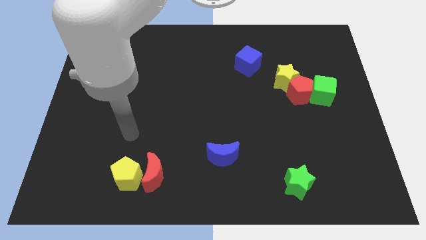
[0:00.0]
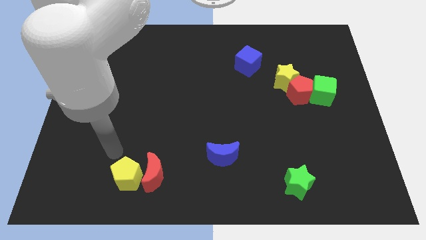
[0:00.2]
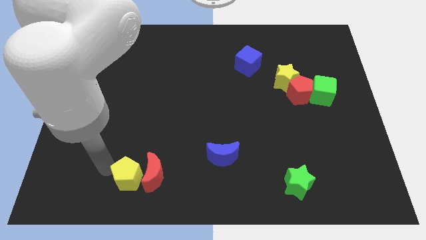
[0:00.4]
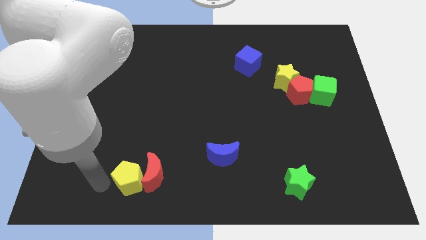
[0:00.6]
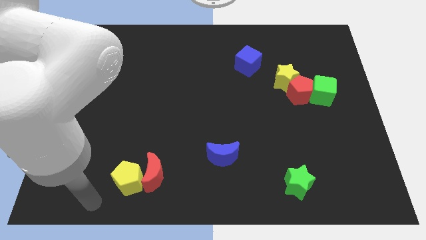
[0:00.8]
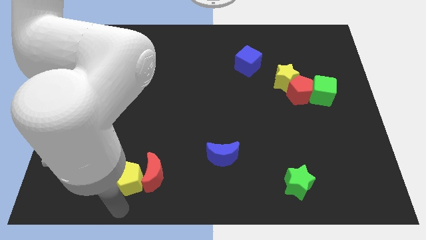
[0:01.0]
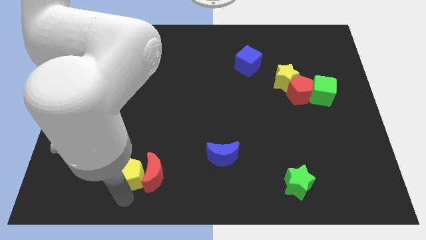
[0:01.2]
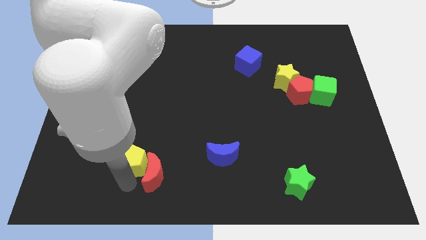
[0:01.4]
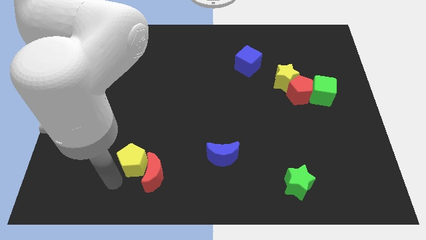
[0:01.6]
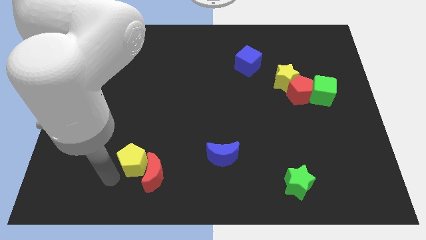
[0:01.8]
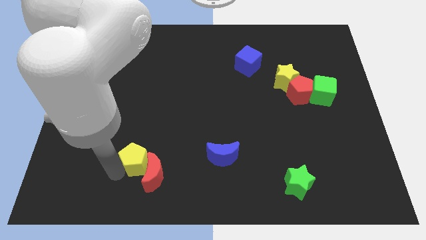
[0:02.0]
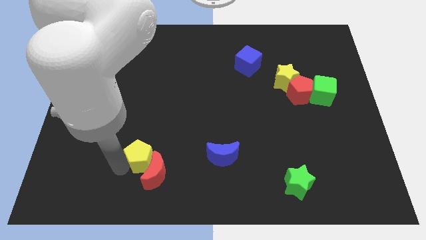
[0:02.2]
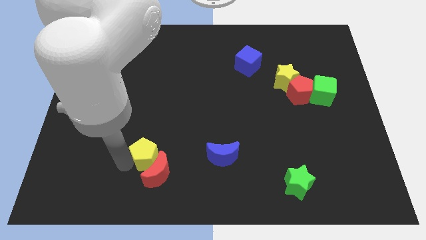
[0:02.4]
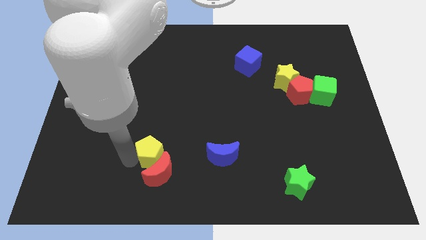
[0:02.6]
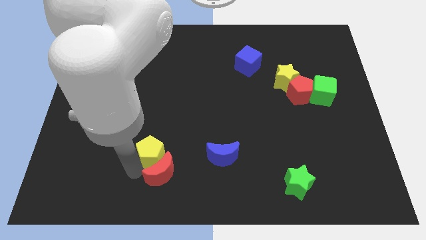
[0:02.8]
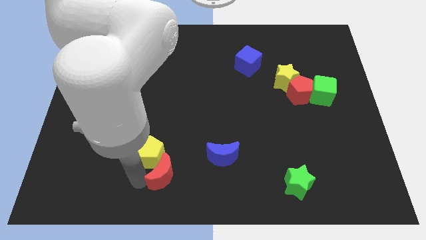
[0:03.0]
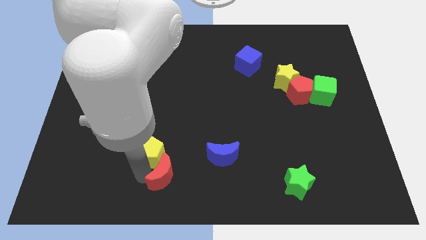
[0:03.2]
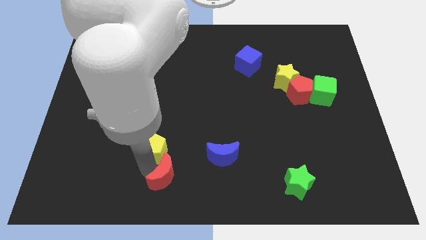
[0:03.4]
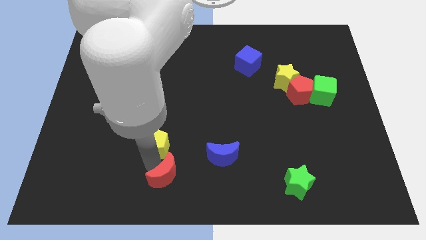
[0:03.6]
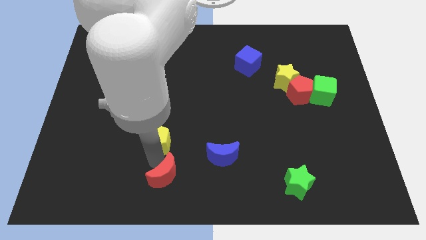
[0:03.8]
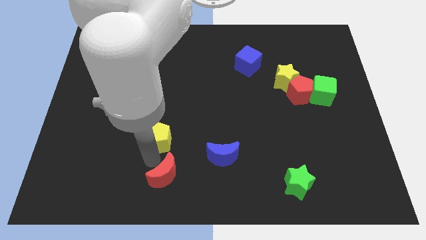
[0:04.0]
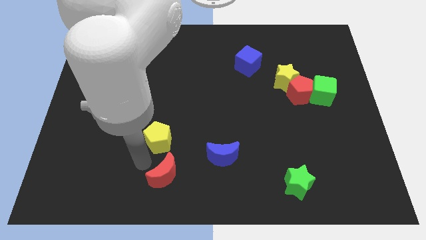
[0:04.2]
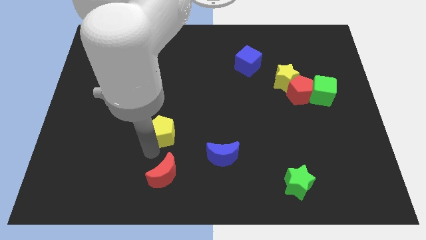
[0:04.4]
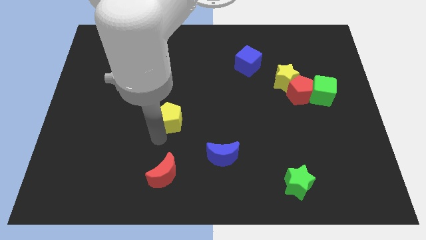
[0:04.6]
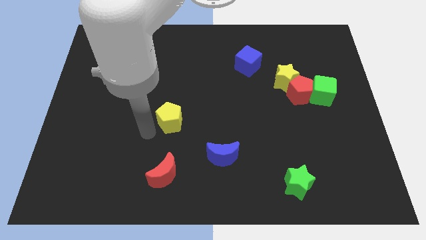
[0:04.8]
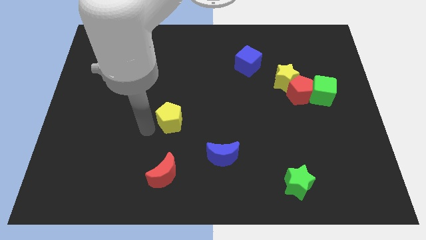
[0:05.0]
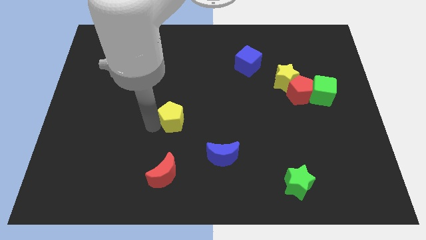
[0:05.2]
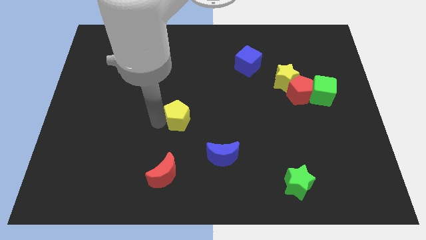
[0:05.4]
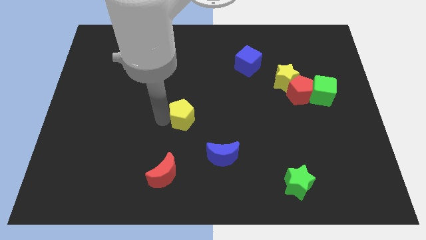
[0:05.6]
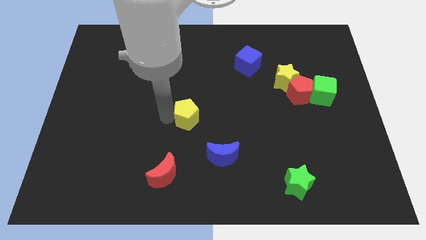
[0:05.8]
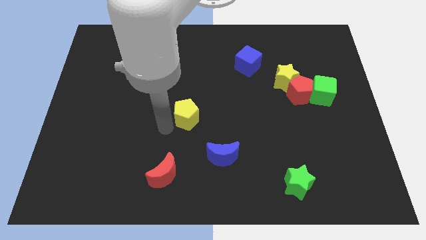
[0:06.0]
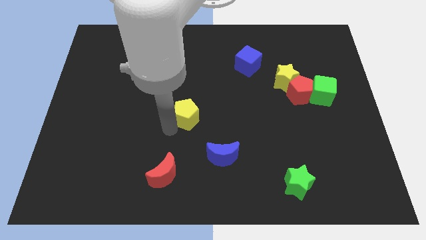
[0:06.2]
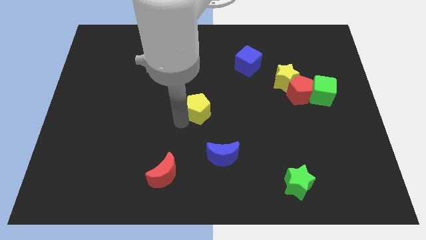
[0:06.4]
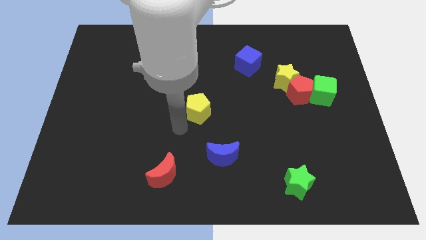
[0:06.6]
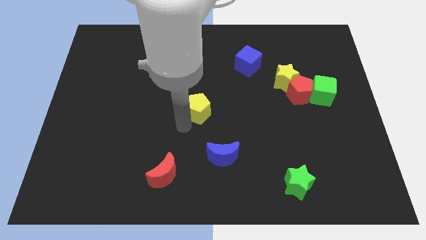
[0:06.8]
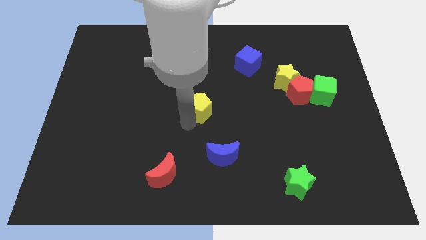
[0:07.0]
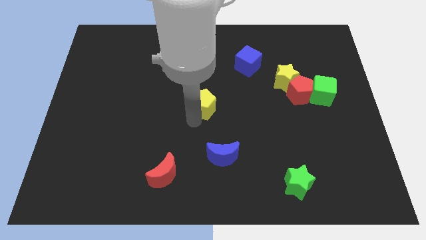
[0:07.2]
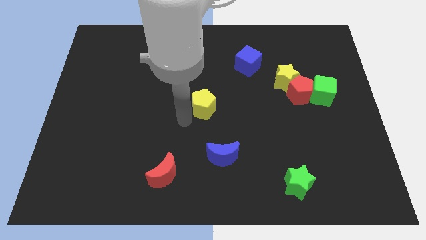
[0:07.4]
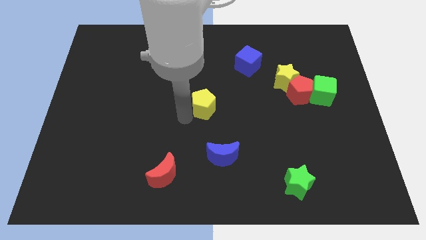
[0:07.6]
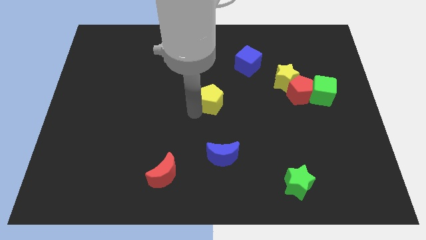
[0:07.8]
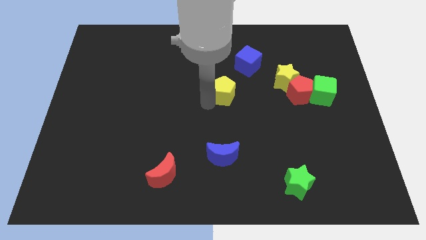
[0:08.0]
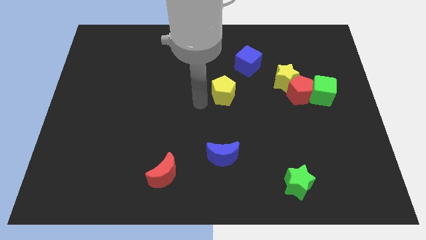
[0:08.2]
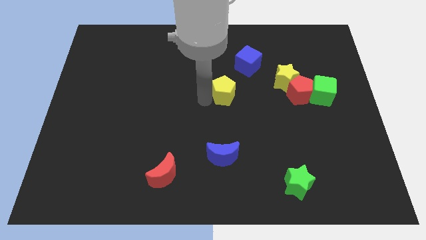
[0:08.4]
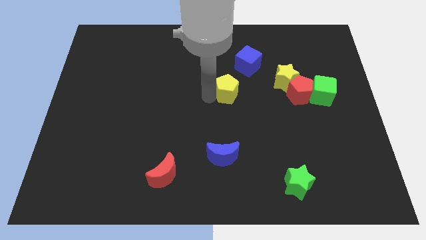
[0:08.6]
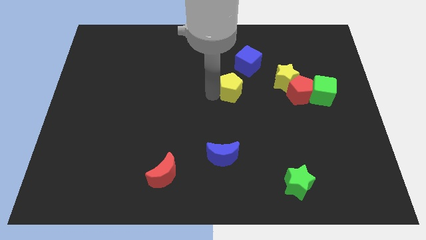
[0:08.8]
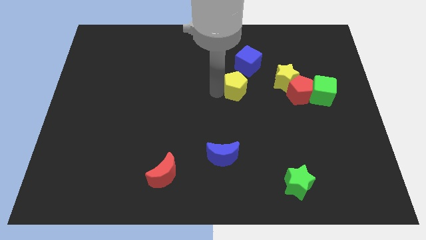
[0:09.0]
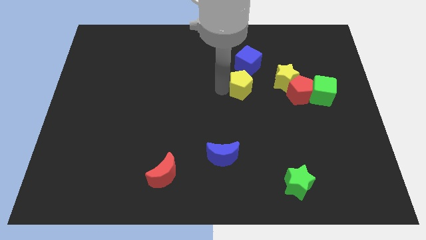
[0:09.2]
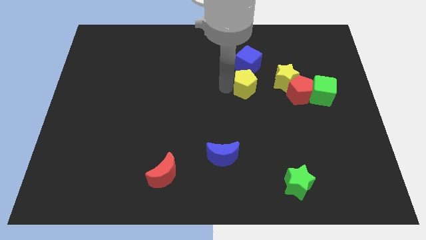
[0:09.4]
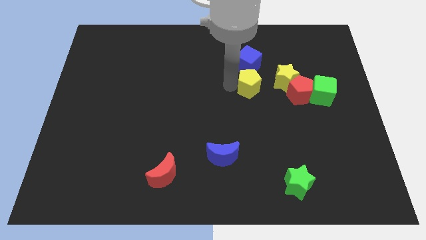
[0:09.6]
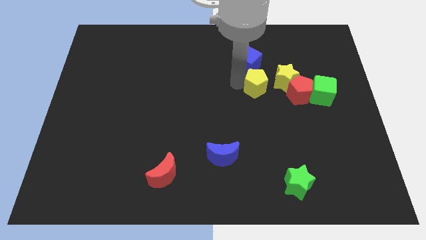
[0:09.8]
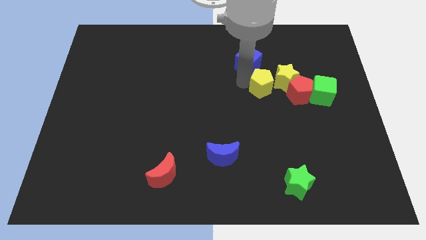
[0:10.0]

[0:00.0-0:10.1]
move the yellow pentagon to the yellow star

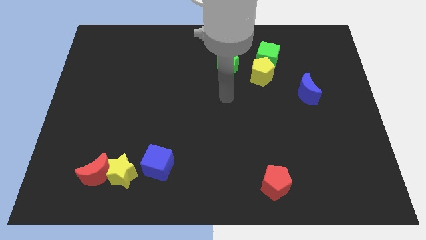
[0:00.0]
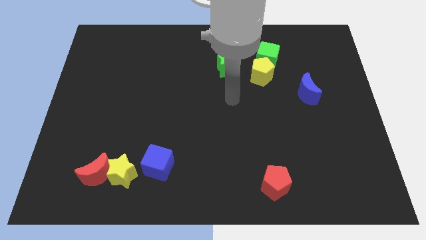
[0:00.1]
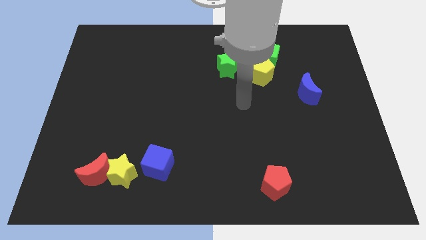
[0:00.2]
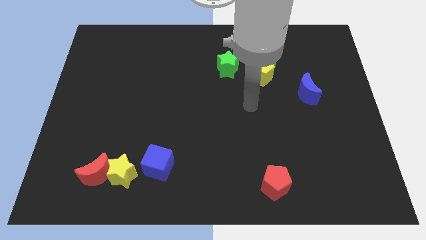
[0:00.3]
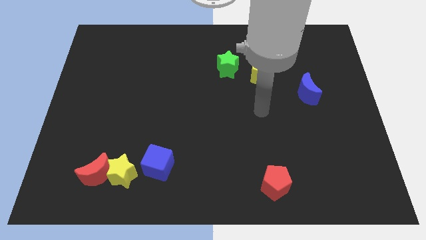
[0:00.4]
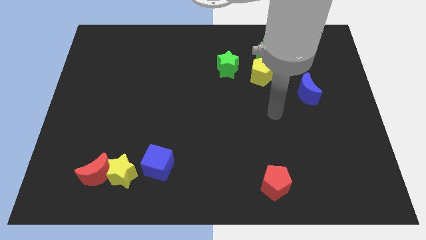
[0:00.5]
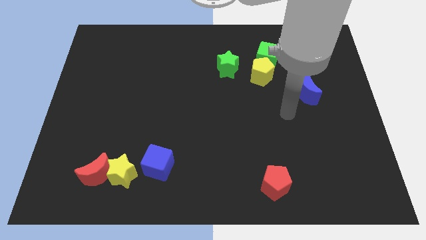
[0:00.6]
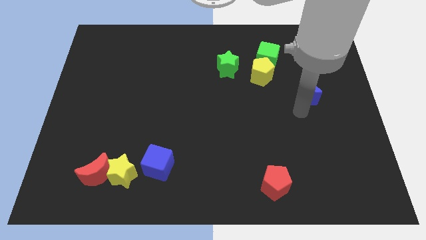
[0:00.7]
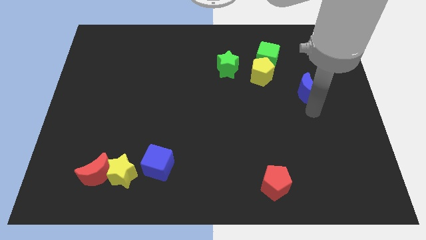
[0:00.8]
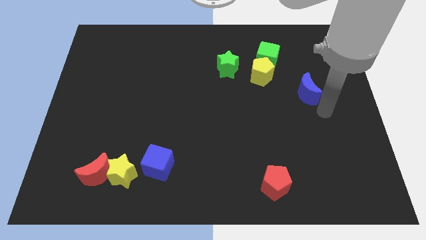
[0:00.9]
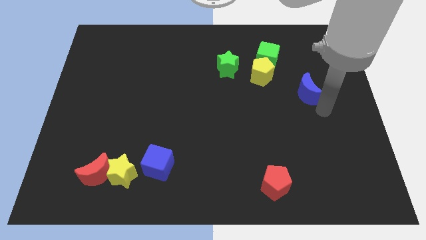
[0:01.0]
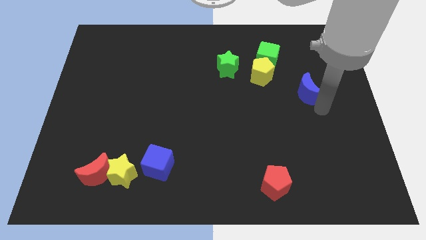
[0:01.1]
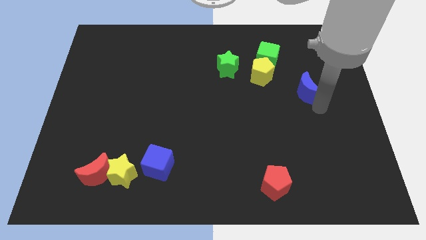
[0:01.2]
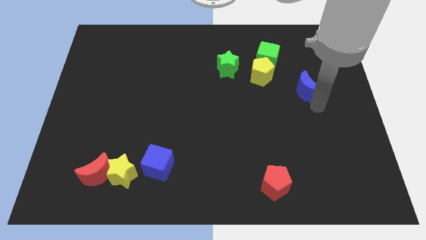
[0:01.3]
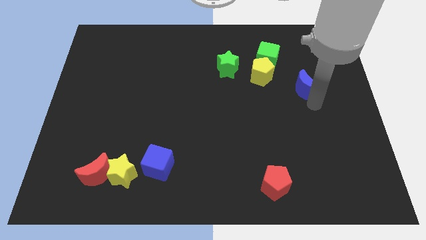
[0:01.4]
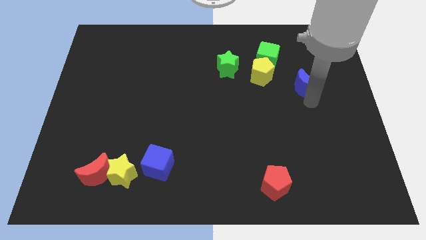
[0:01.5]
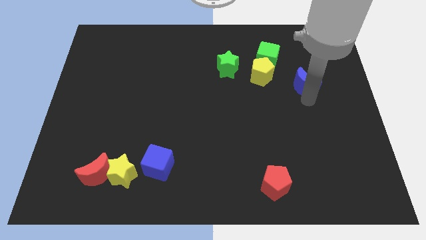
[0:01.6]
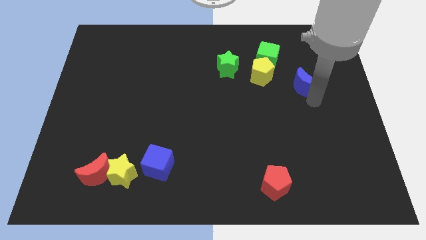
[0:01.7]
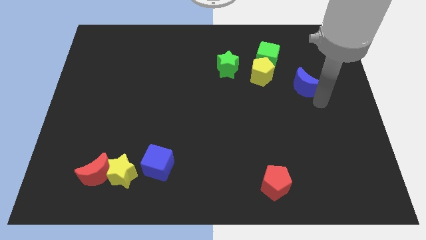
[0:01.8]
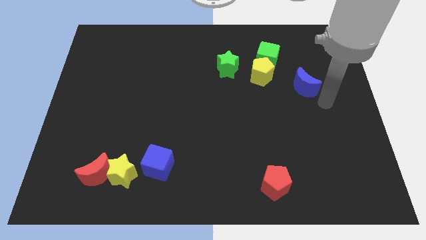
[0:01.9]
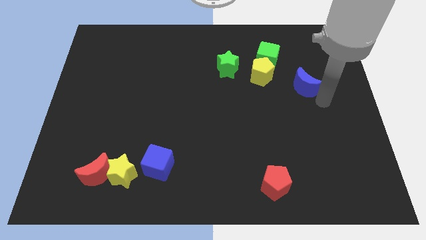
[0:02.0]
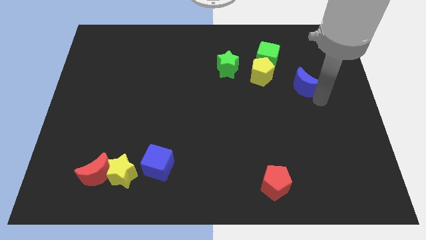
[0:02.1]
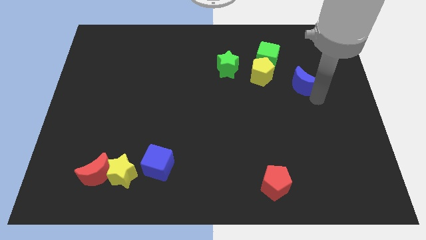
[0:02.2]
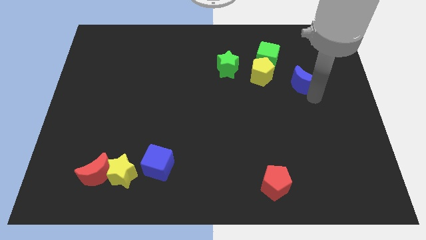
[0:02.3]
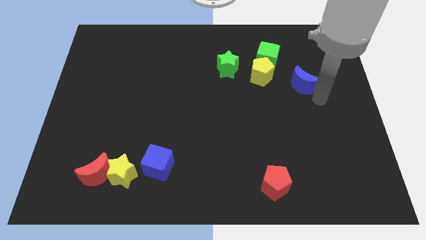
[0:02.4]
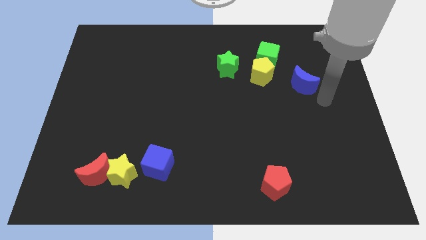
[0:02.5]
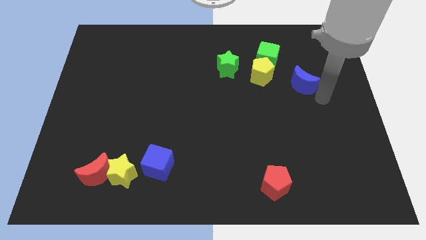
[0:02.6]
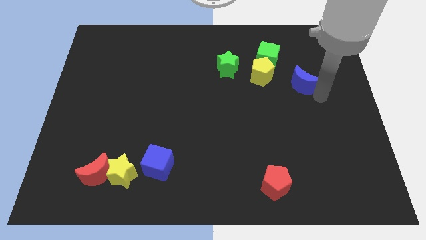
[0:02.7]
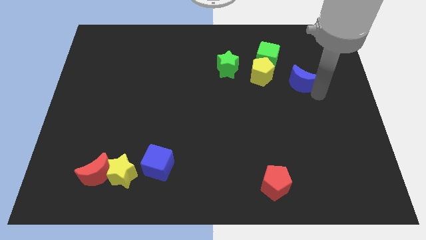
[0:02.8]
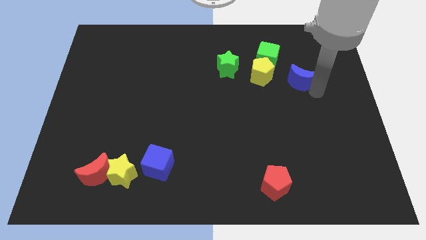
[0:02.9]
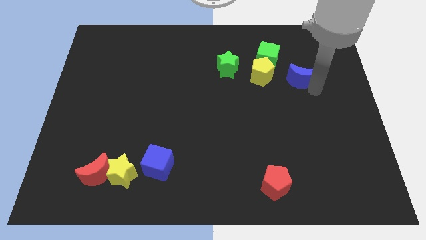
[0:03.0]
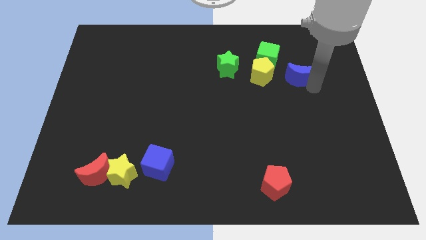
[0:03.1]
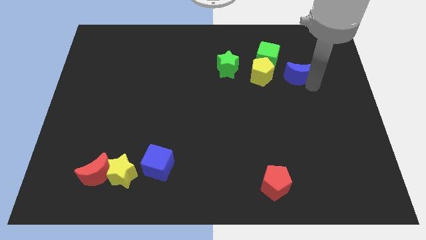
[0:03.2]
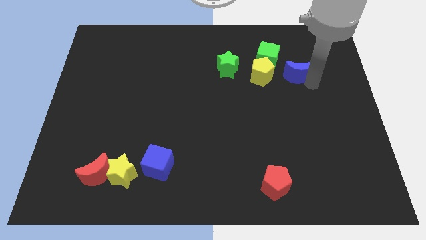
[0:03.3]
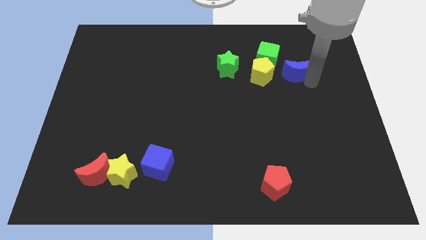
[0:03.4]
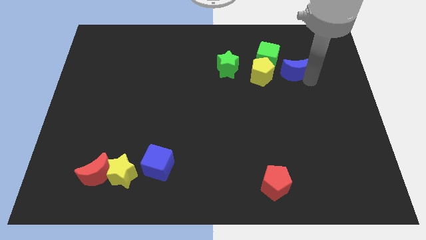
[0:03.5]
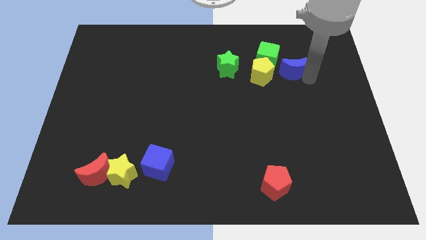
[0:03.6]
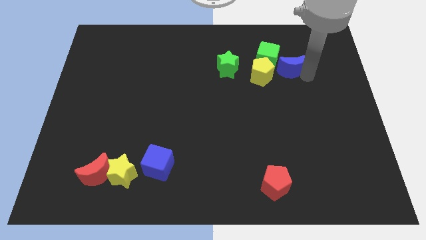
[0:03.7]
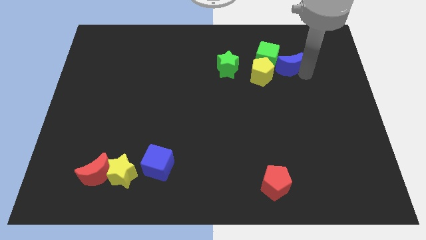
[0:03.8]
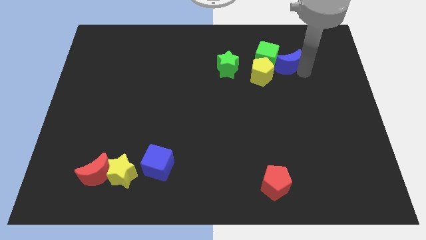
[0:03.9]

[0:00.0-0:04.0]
move the blue moon towards the green cube
